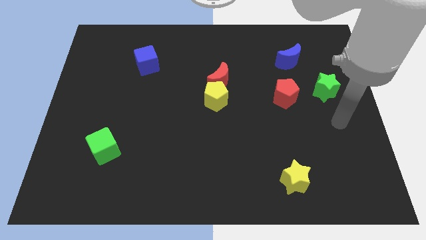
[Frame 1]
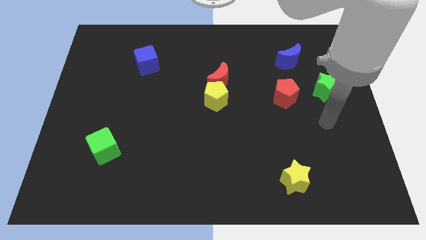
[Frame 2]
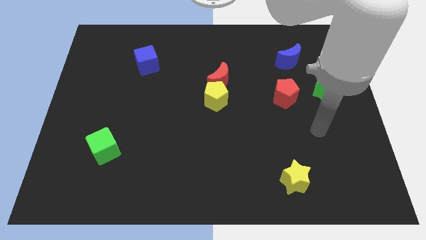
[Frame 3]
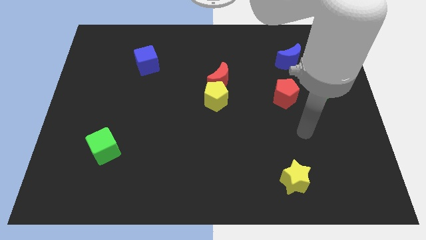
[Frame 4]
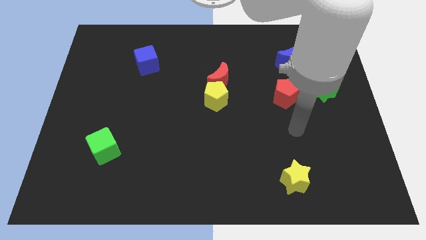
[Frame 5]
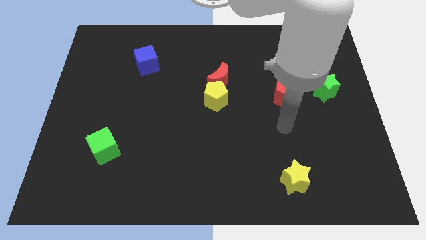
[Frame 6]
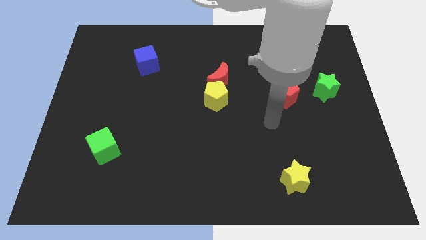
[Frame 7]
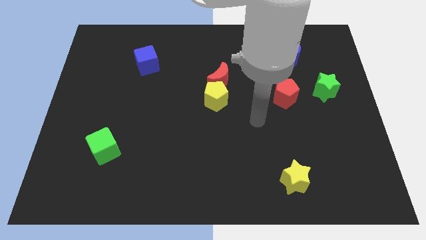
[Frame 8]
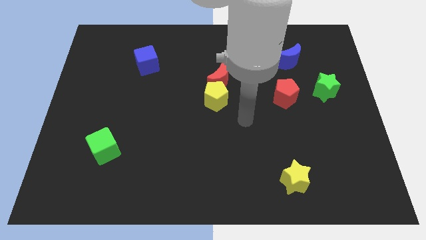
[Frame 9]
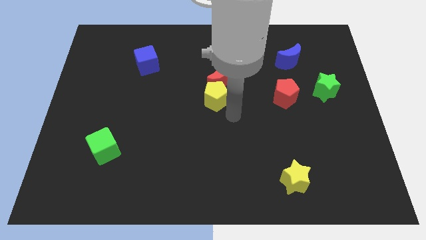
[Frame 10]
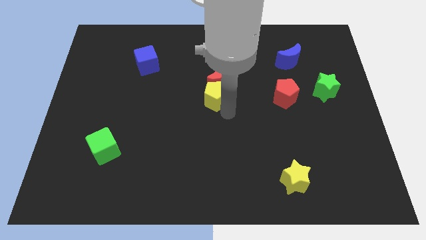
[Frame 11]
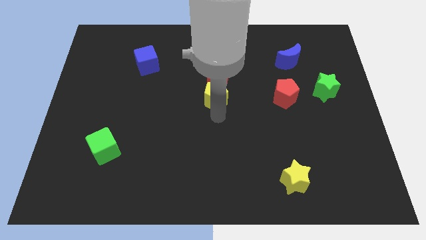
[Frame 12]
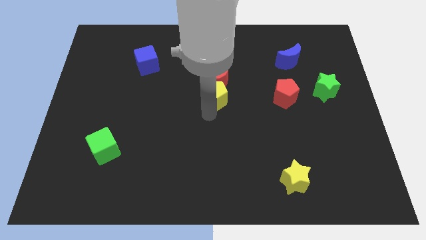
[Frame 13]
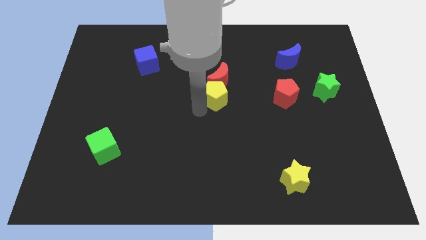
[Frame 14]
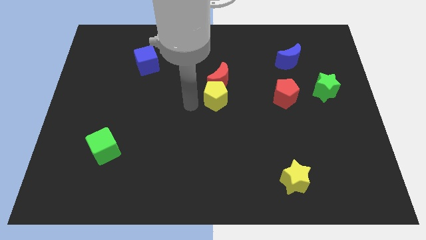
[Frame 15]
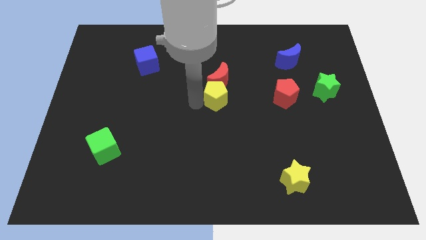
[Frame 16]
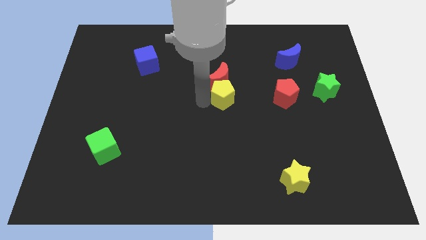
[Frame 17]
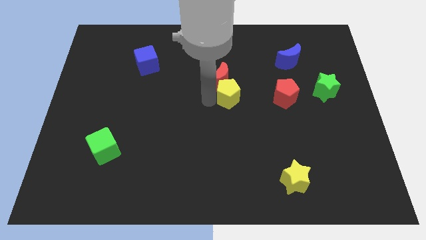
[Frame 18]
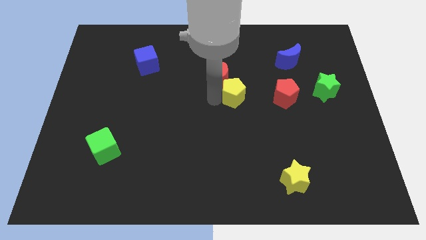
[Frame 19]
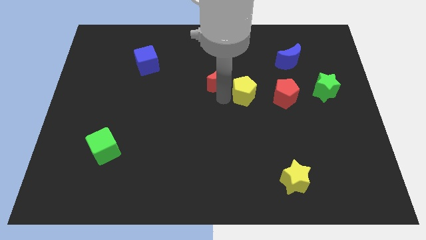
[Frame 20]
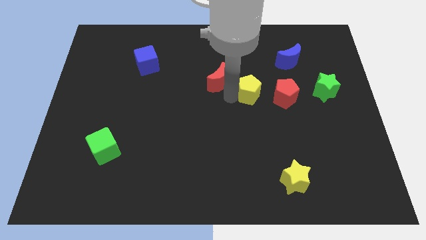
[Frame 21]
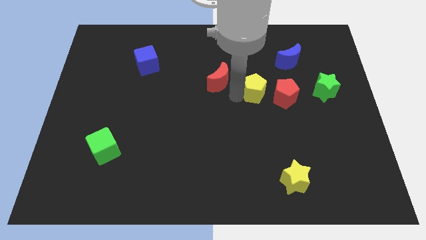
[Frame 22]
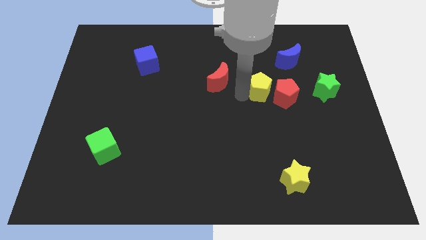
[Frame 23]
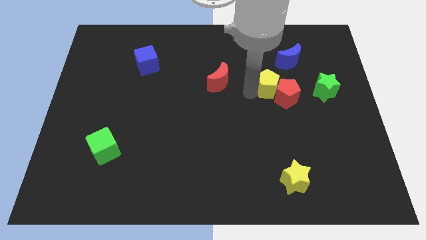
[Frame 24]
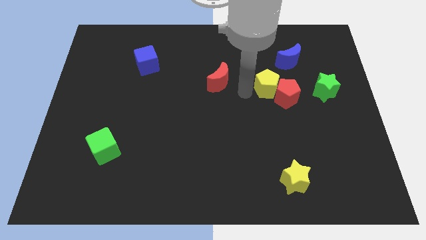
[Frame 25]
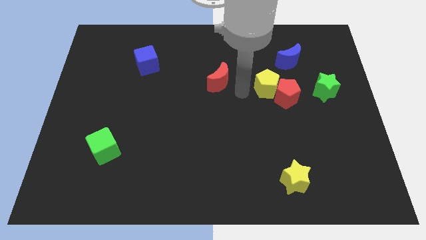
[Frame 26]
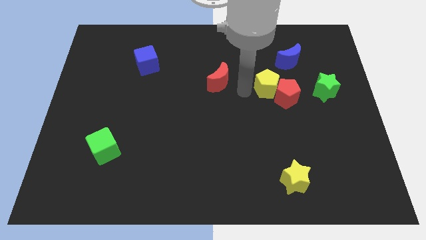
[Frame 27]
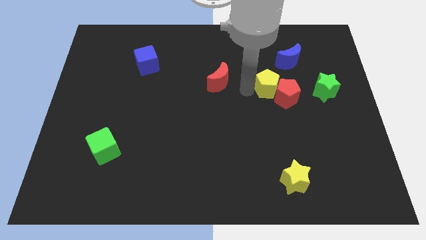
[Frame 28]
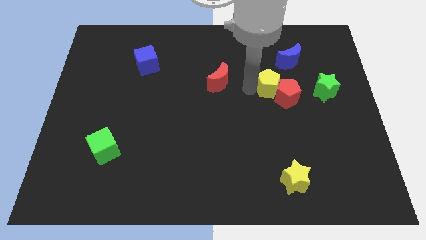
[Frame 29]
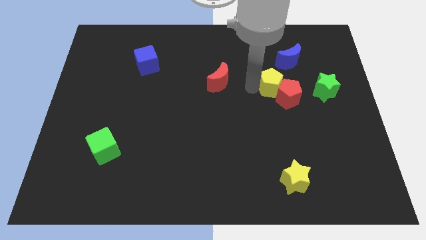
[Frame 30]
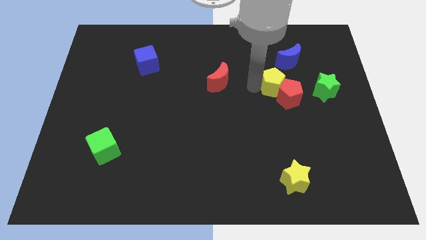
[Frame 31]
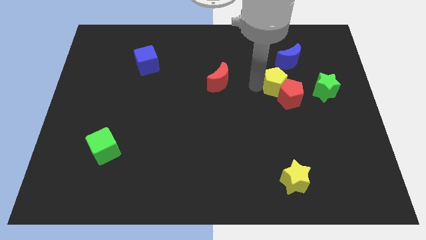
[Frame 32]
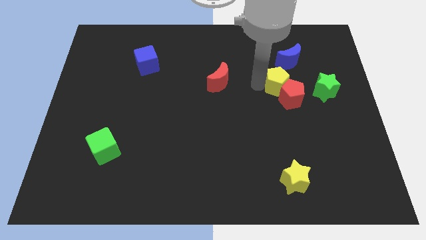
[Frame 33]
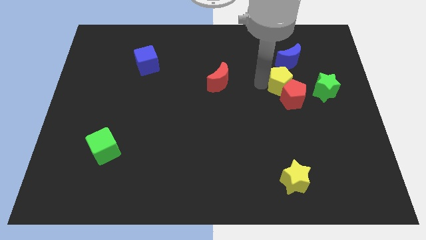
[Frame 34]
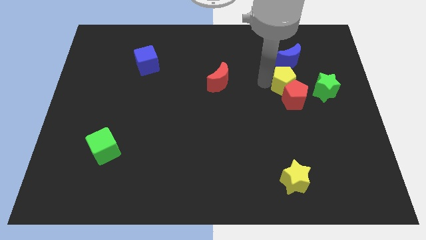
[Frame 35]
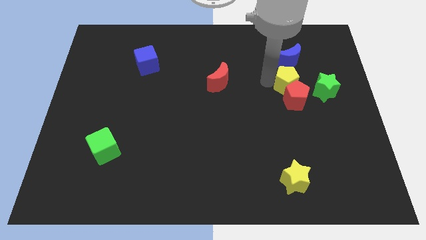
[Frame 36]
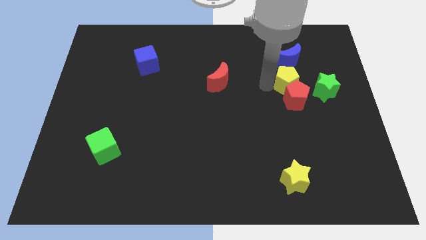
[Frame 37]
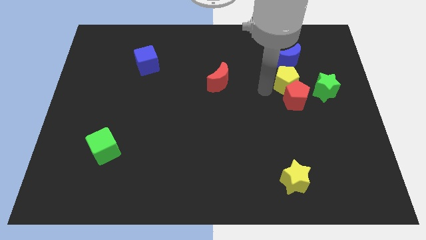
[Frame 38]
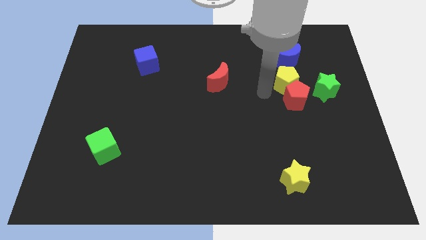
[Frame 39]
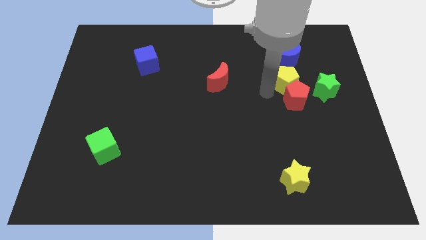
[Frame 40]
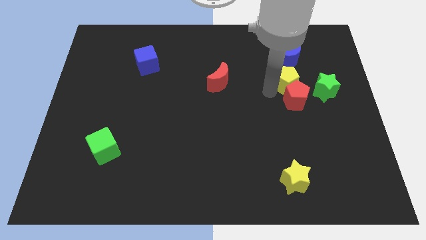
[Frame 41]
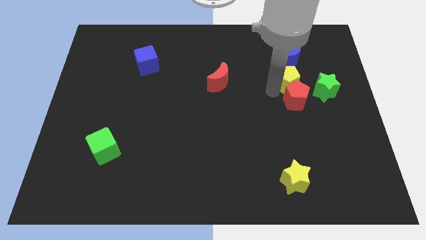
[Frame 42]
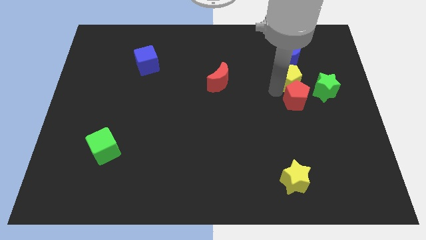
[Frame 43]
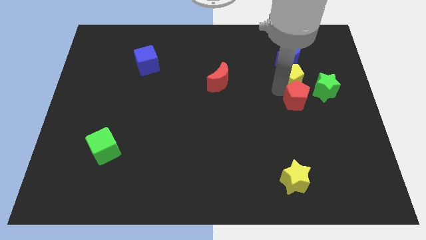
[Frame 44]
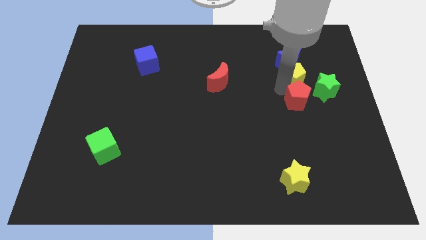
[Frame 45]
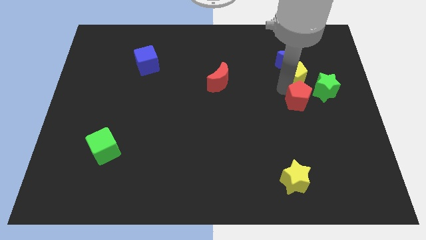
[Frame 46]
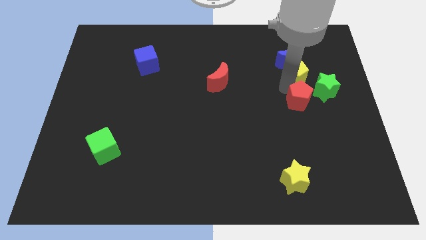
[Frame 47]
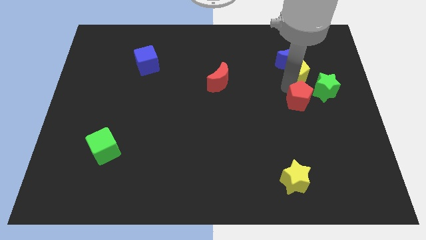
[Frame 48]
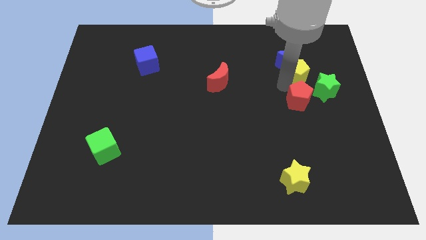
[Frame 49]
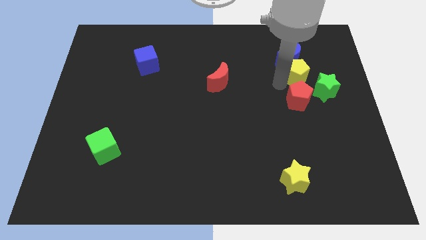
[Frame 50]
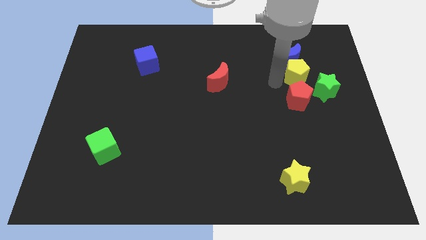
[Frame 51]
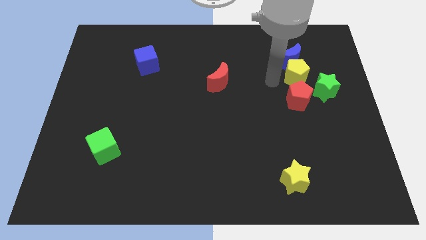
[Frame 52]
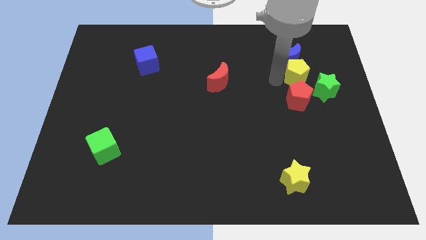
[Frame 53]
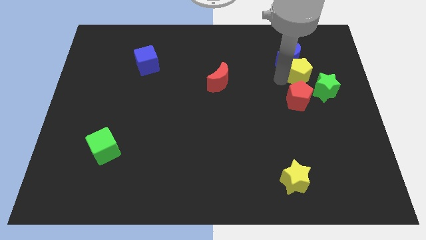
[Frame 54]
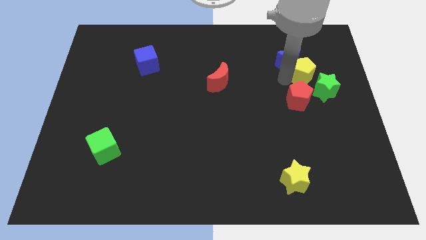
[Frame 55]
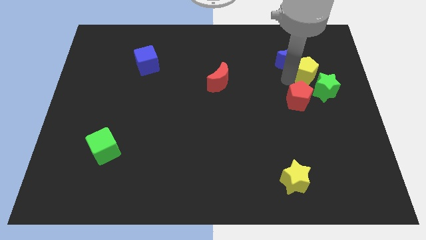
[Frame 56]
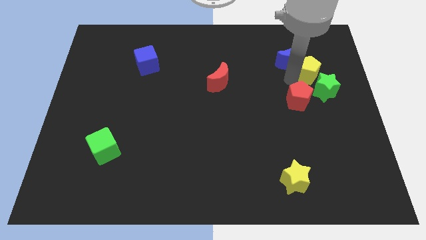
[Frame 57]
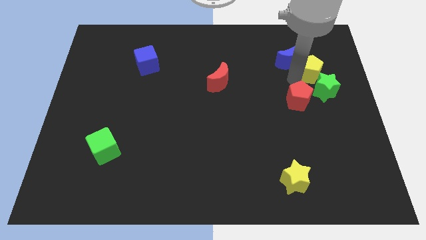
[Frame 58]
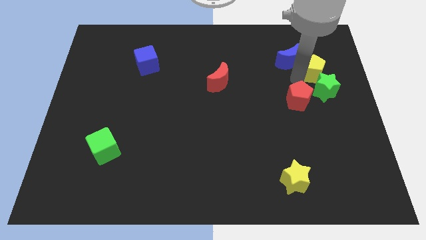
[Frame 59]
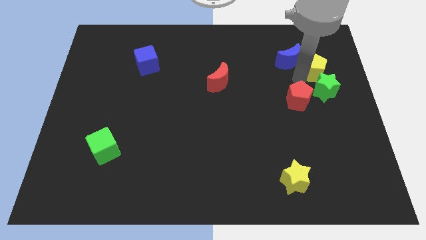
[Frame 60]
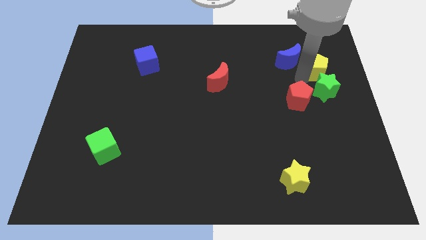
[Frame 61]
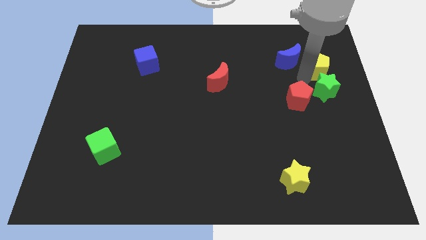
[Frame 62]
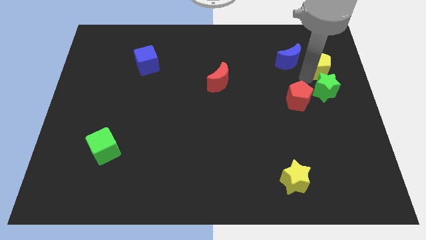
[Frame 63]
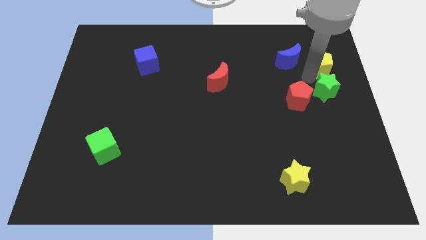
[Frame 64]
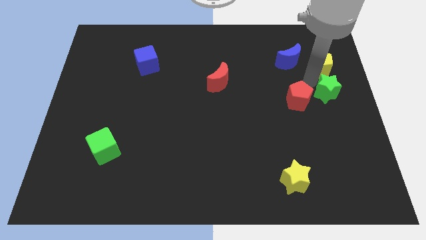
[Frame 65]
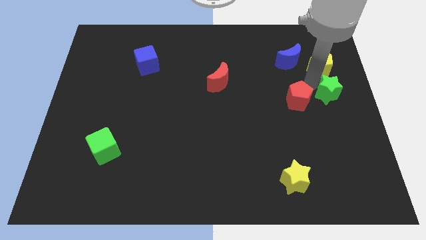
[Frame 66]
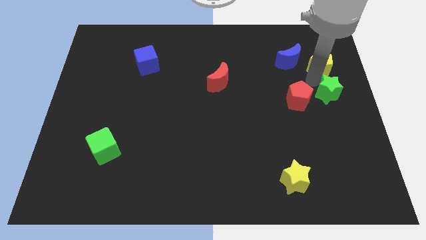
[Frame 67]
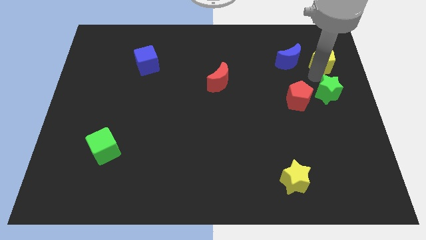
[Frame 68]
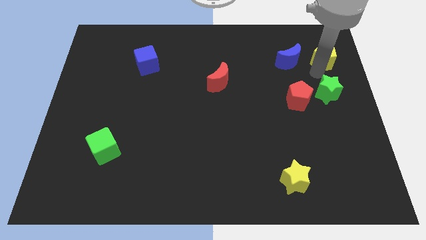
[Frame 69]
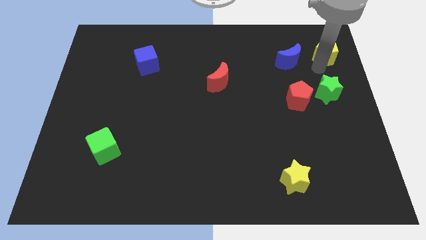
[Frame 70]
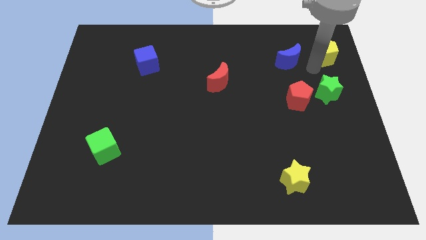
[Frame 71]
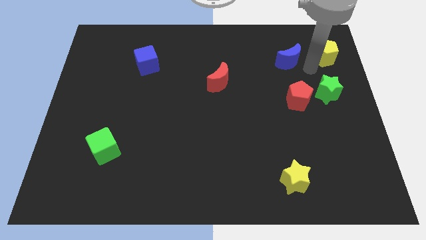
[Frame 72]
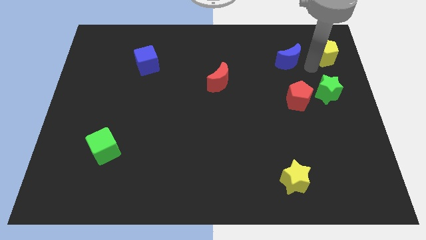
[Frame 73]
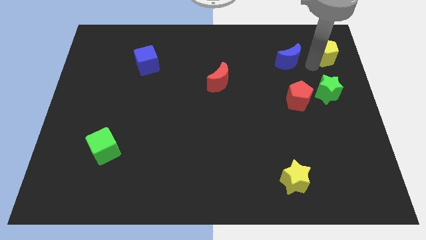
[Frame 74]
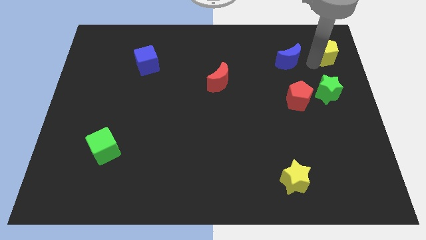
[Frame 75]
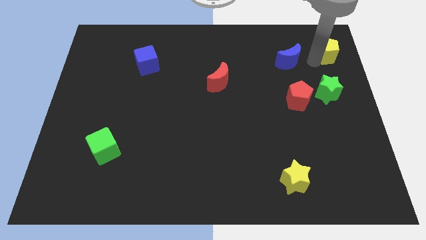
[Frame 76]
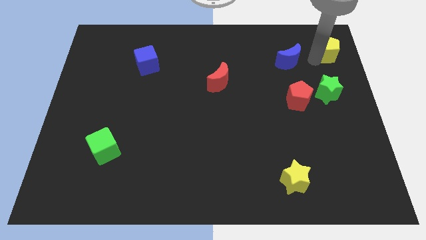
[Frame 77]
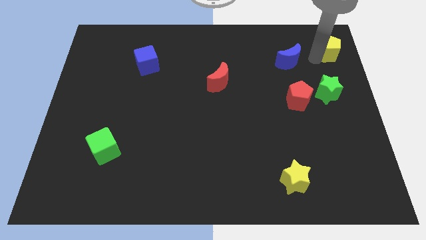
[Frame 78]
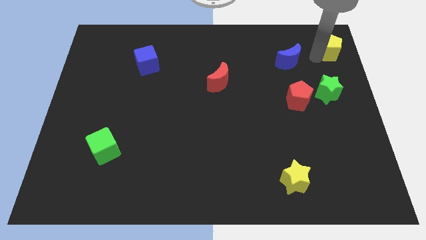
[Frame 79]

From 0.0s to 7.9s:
push the yellow pentagon to the upper right corner

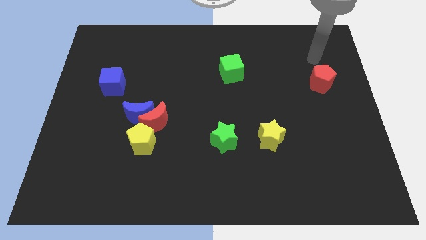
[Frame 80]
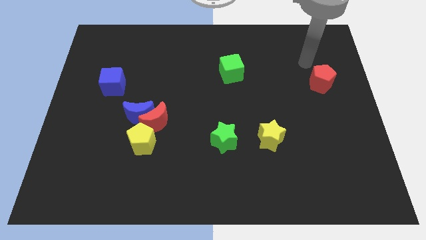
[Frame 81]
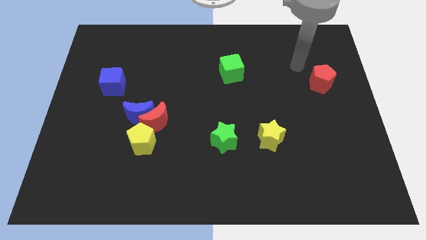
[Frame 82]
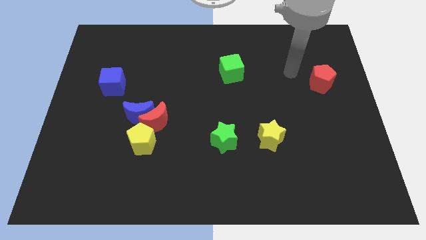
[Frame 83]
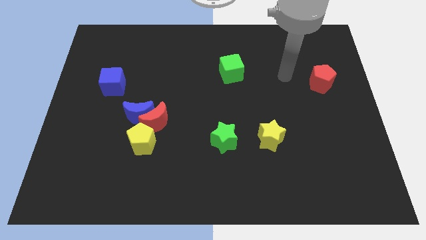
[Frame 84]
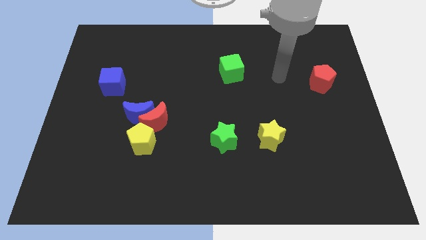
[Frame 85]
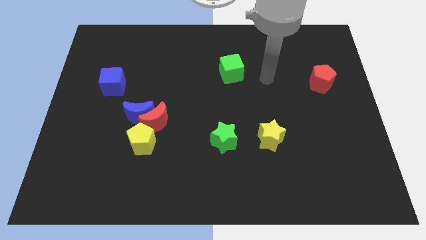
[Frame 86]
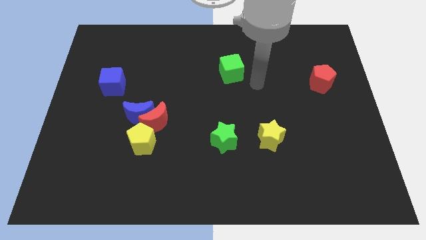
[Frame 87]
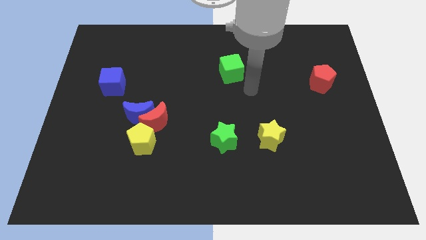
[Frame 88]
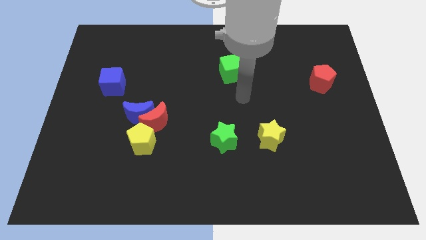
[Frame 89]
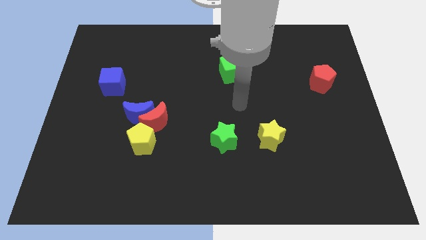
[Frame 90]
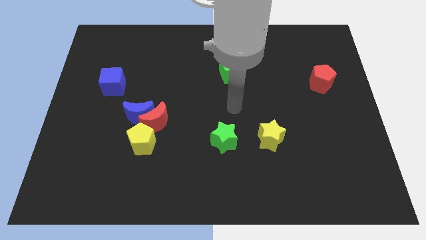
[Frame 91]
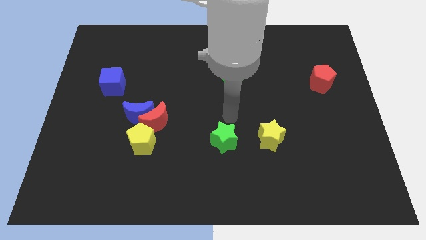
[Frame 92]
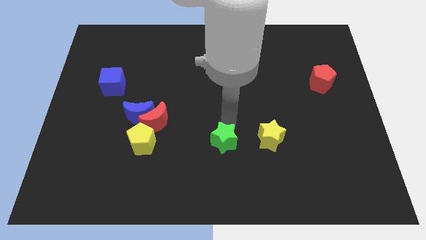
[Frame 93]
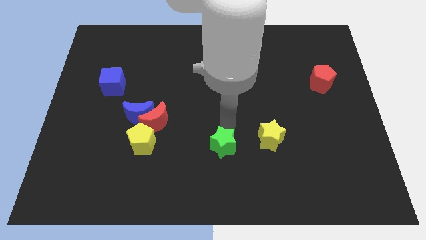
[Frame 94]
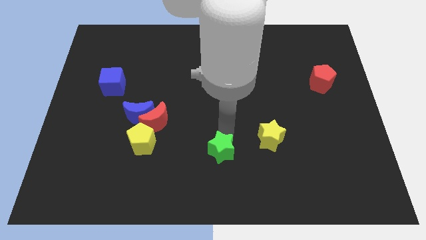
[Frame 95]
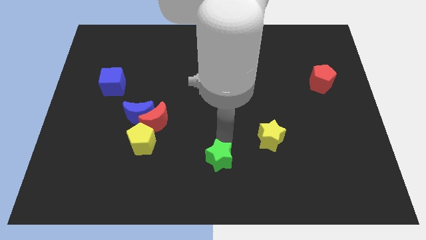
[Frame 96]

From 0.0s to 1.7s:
move the green star to the bottom
